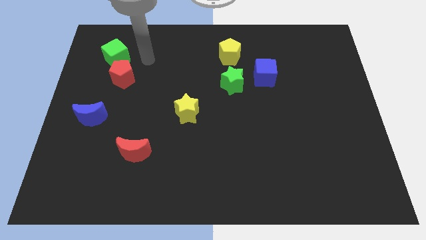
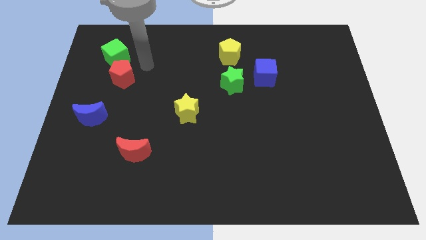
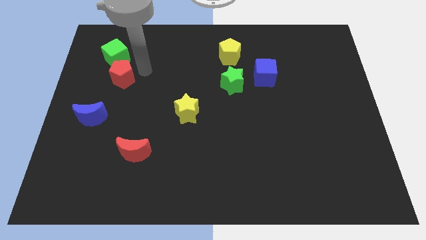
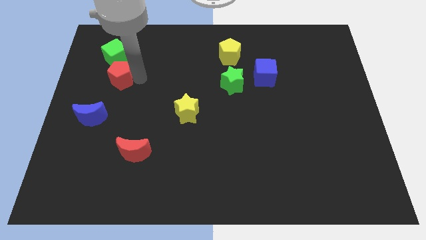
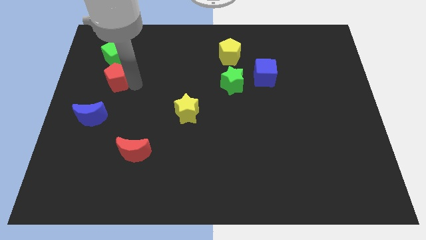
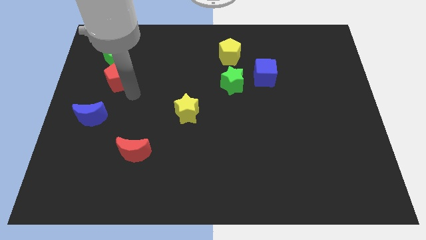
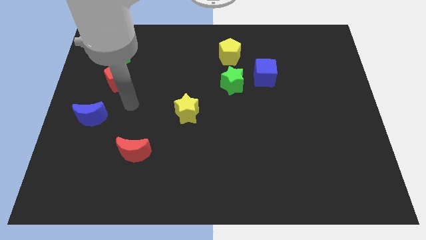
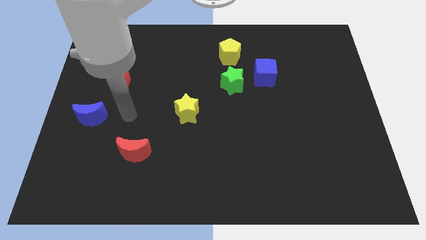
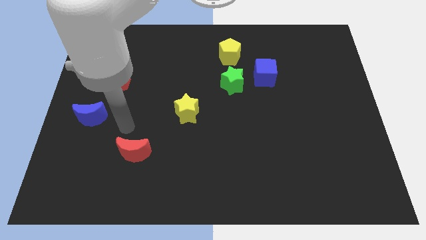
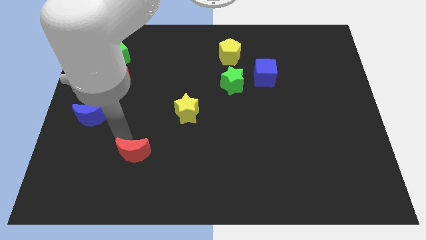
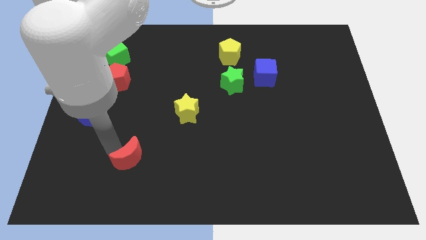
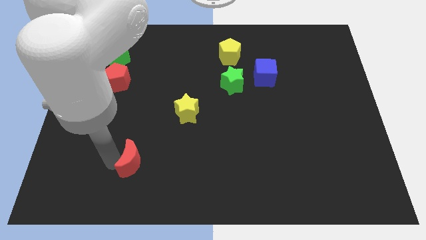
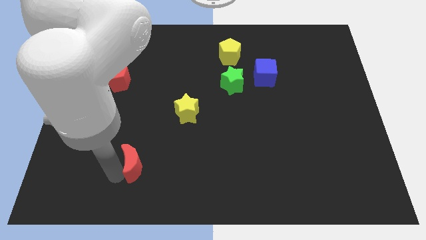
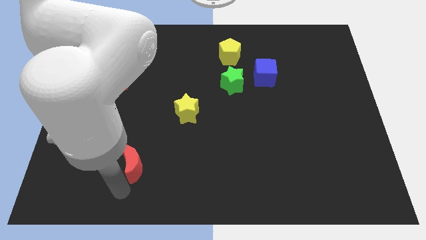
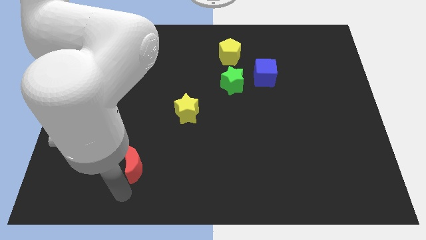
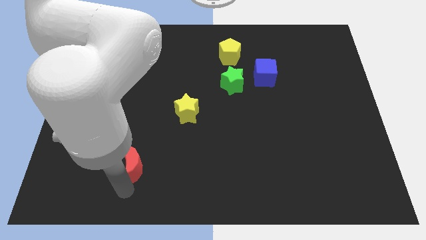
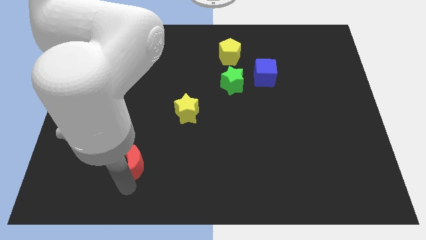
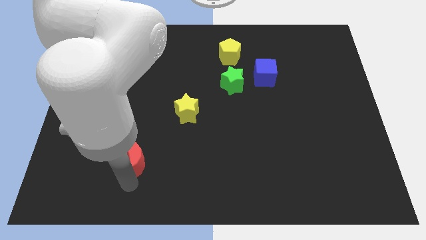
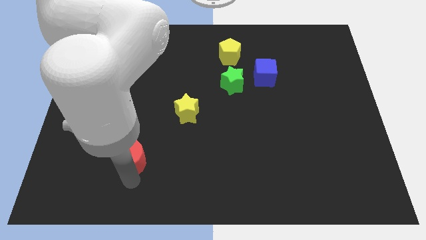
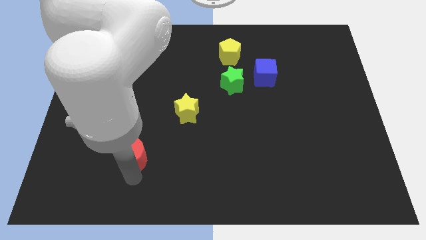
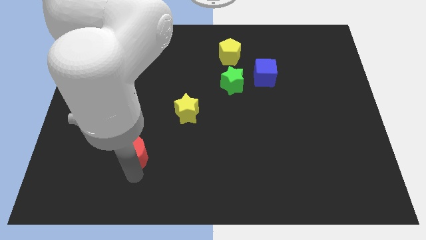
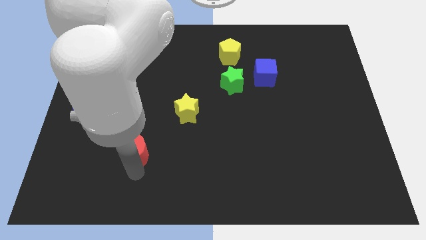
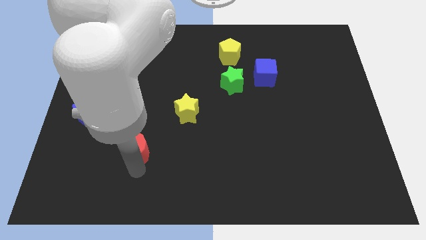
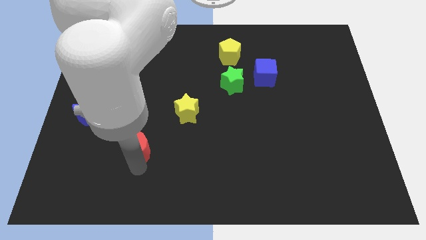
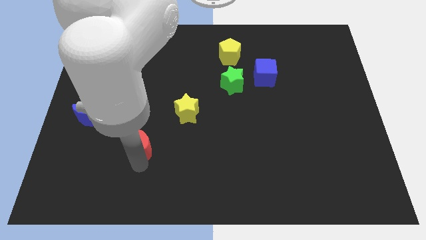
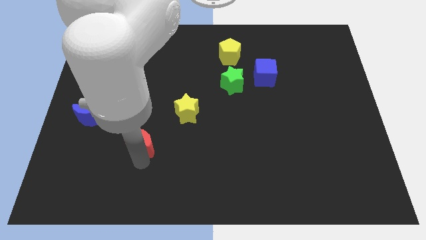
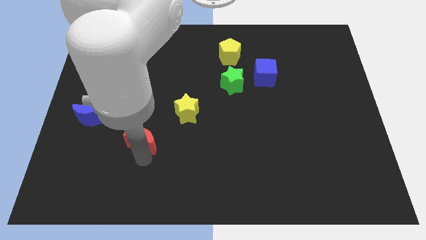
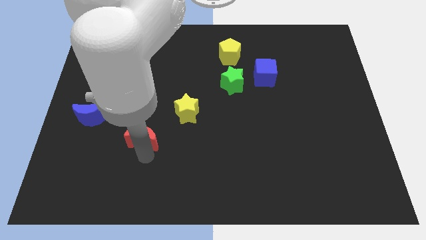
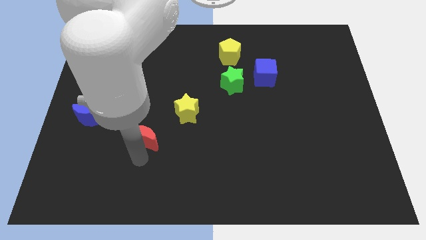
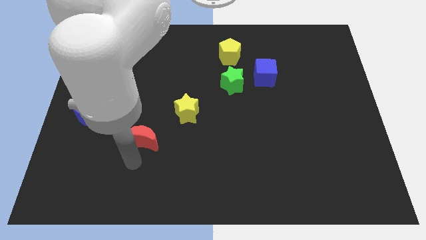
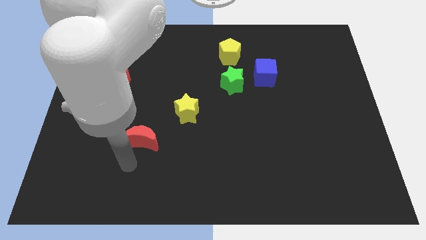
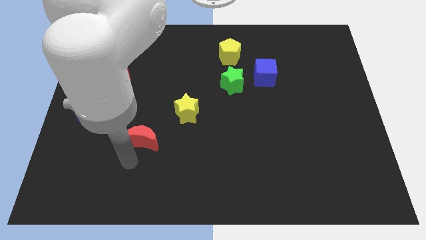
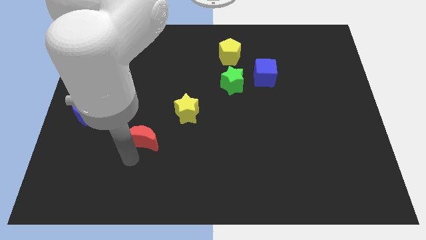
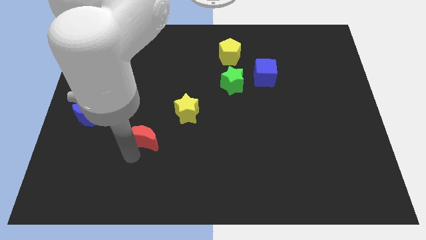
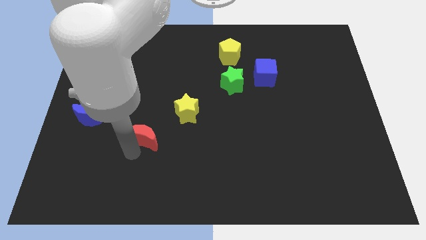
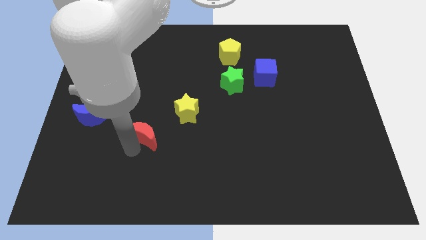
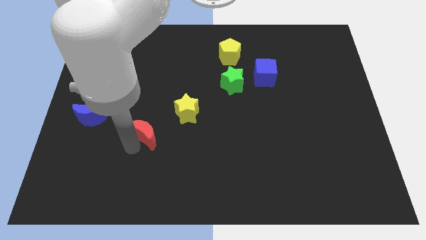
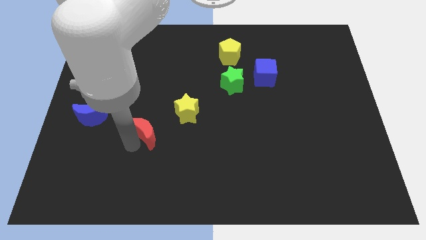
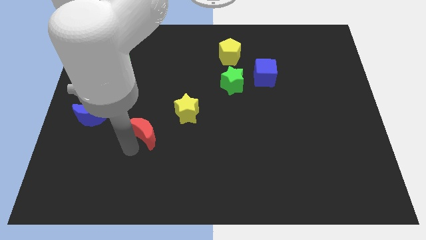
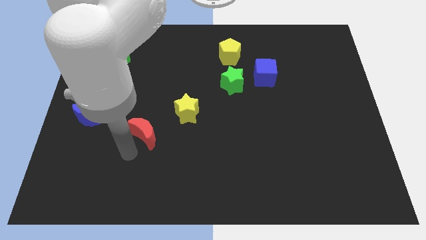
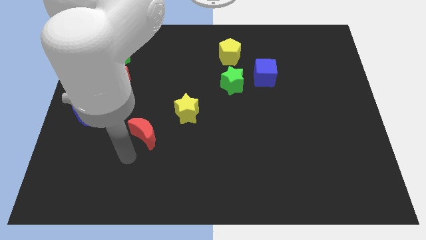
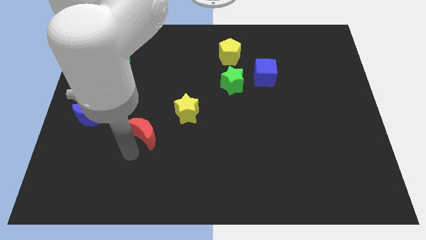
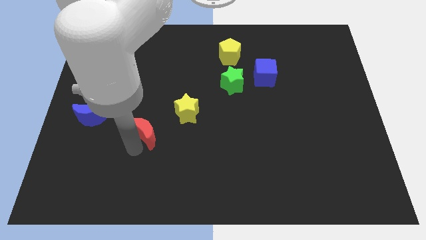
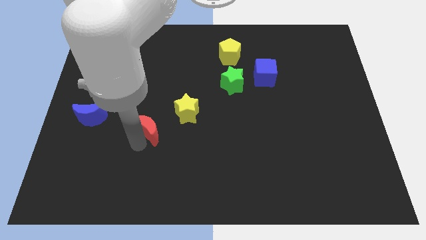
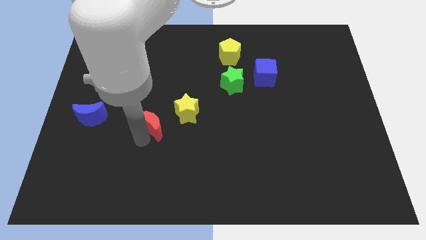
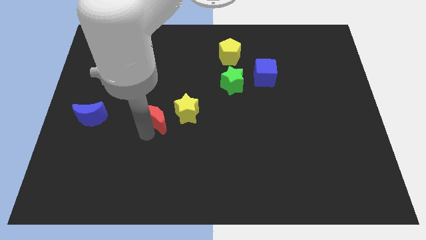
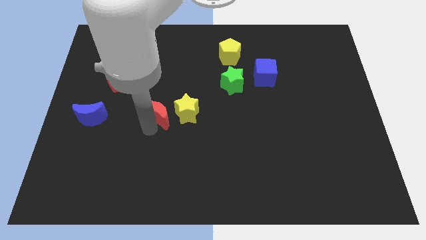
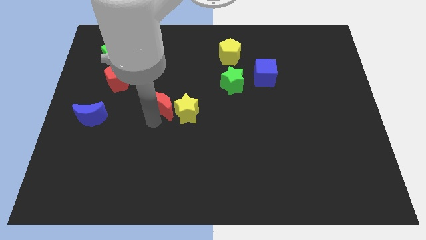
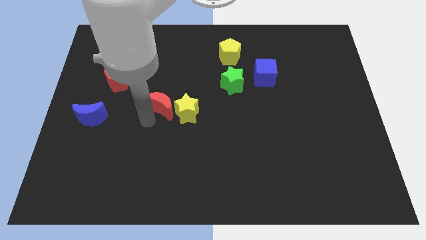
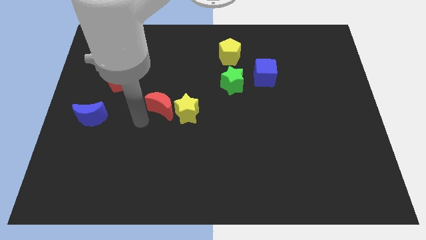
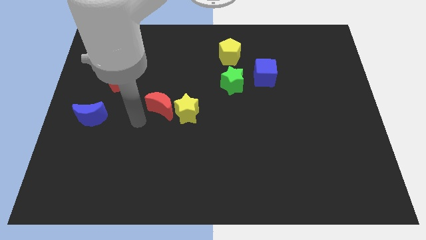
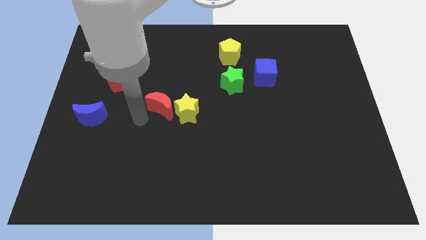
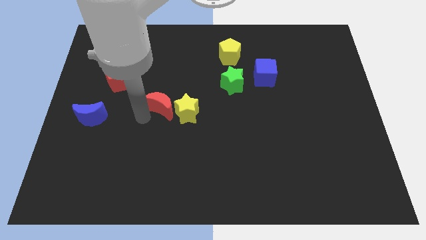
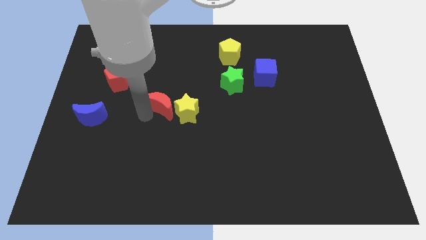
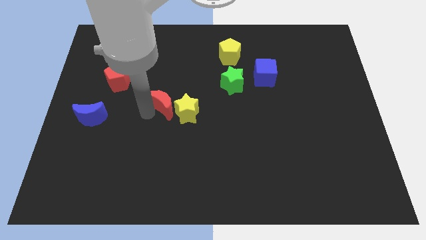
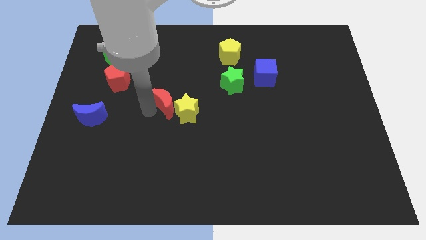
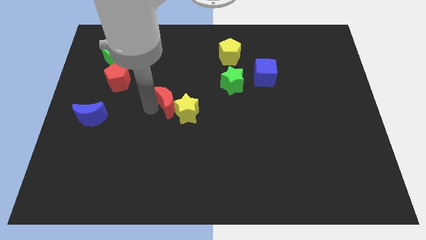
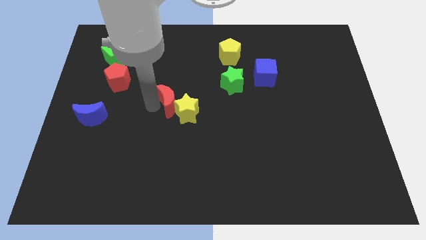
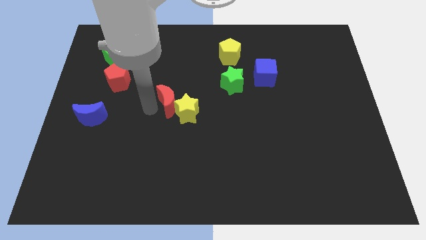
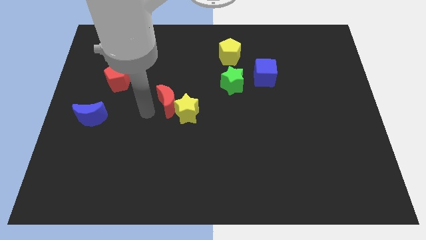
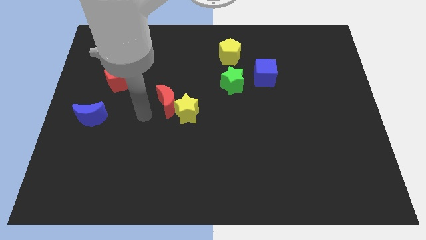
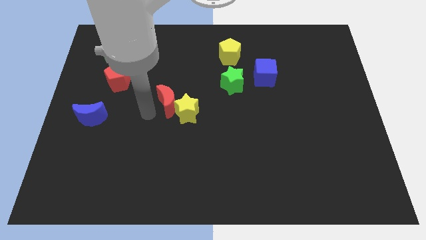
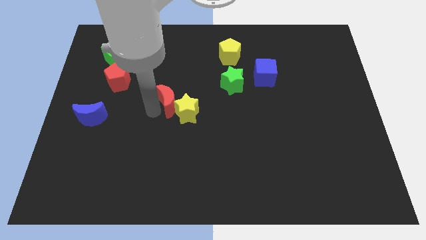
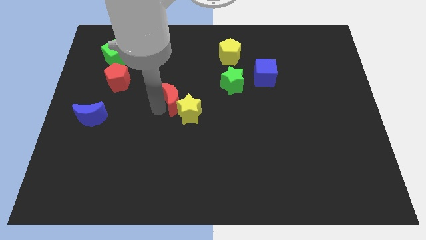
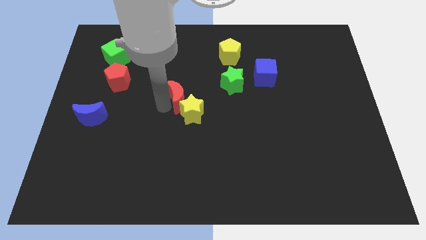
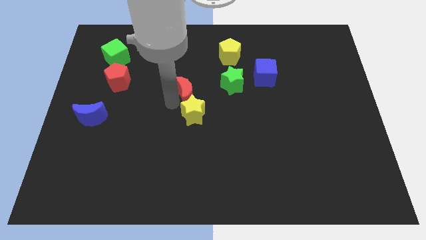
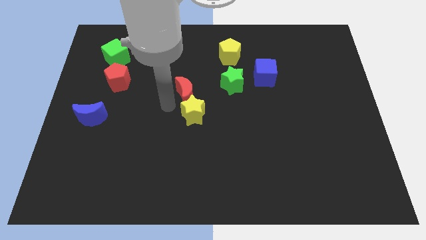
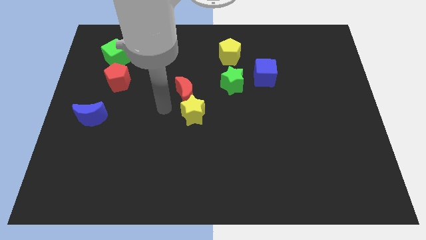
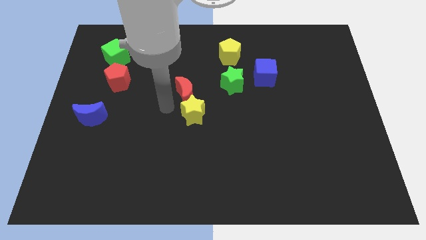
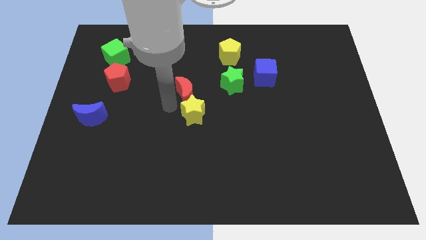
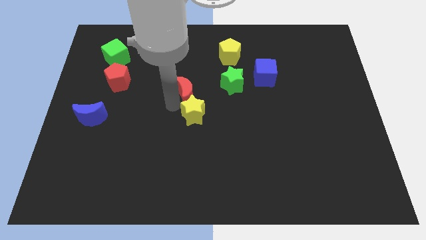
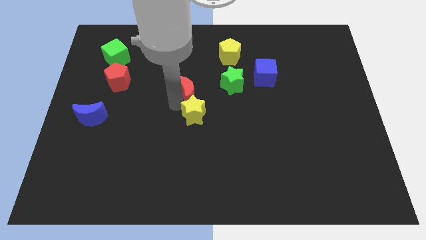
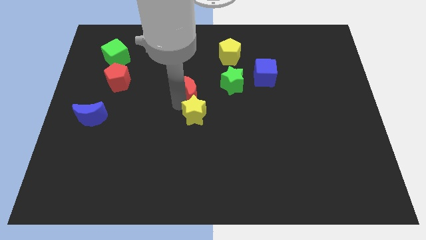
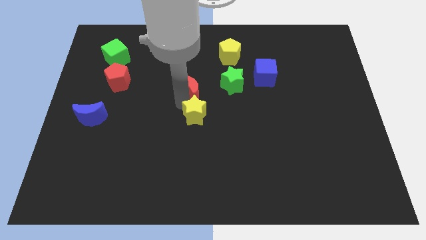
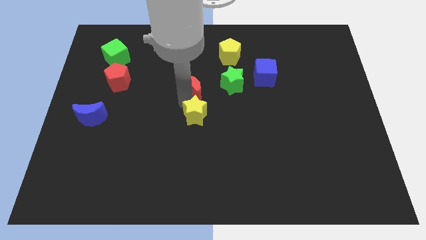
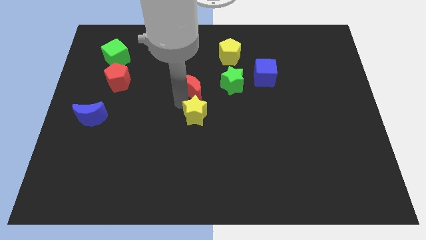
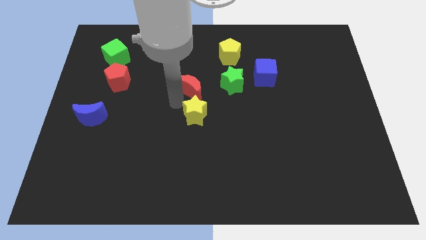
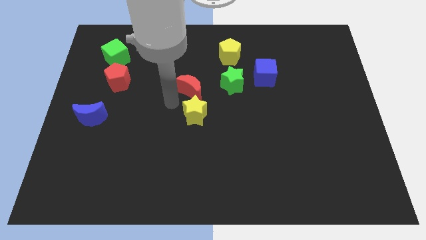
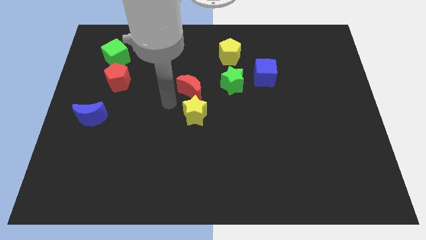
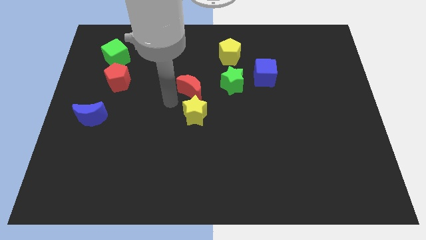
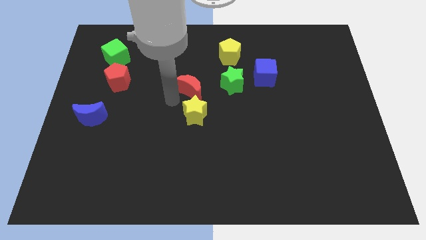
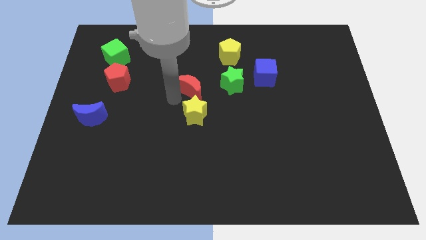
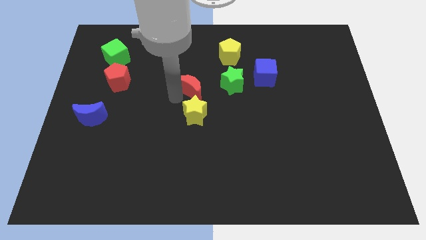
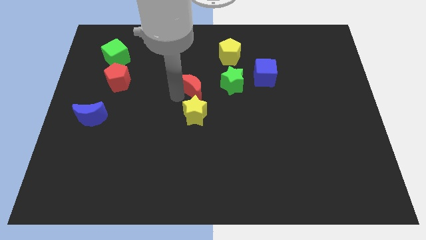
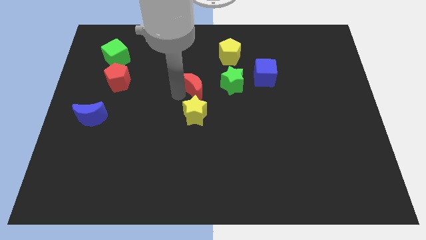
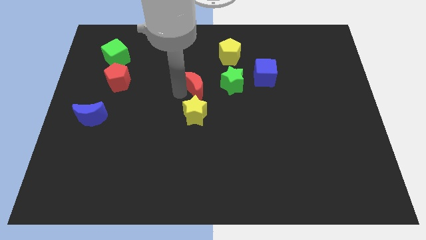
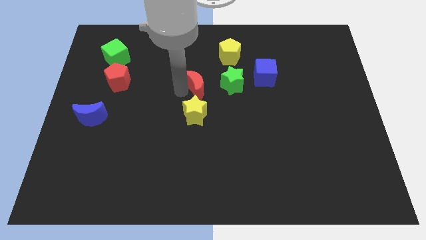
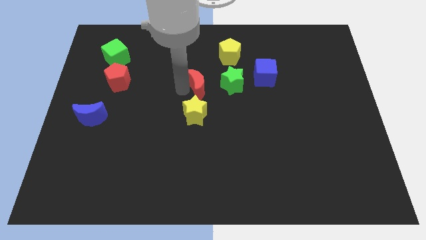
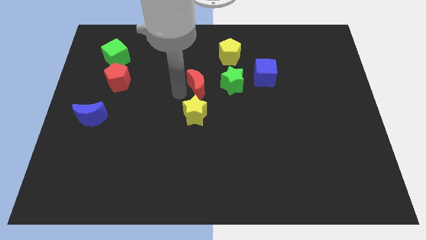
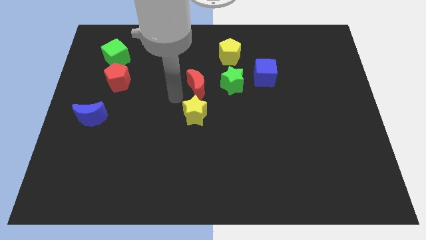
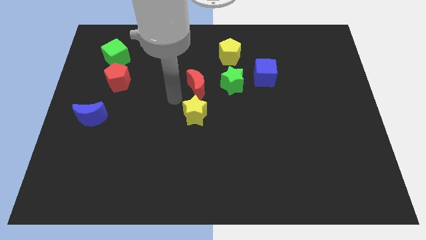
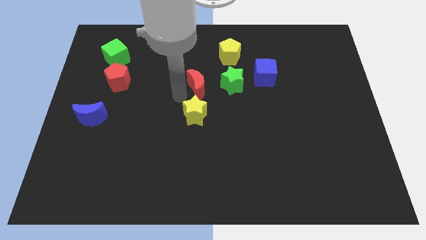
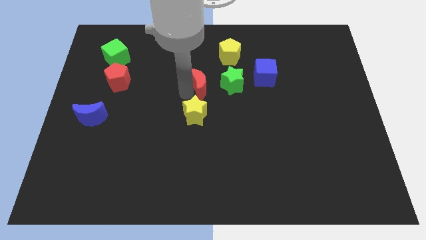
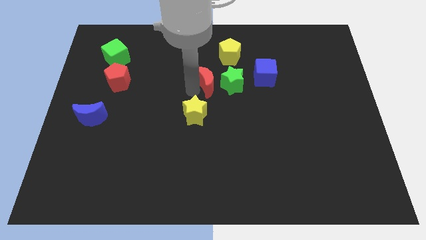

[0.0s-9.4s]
move the red moon to the left side of the blue cube
